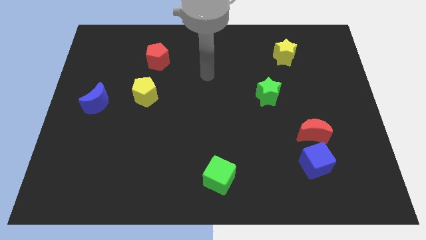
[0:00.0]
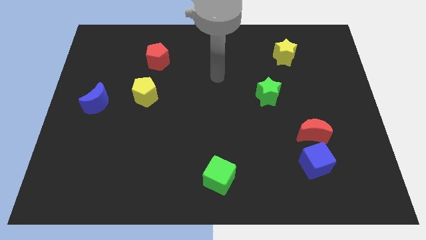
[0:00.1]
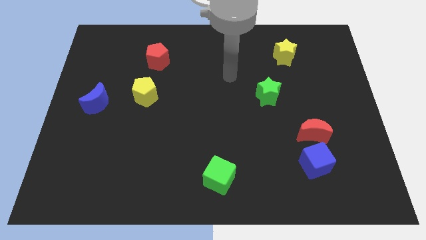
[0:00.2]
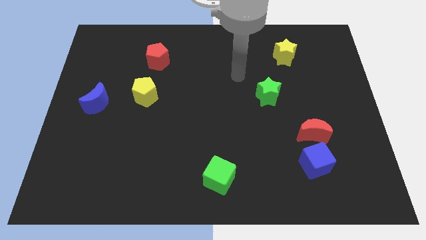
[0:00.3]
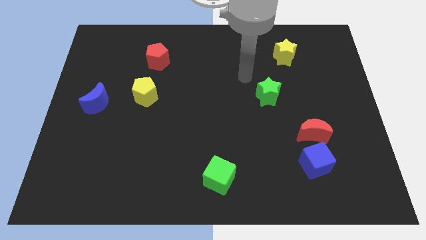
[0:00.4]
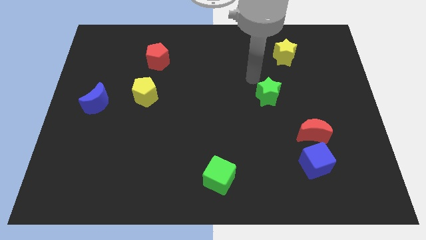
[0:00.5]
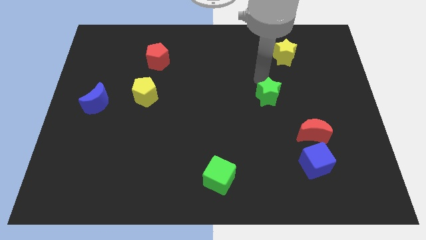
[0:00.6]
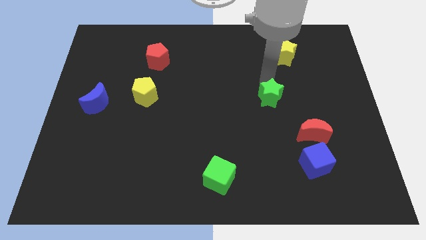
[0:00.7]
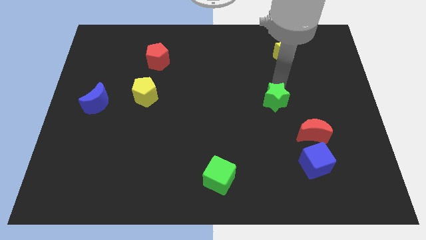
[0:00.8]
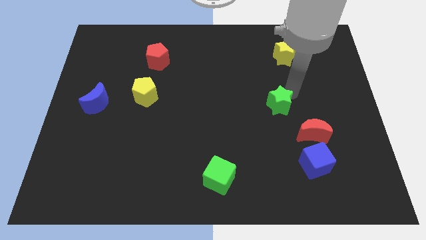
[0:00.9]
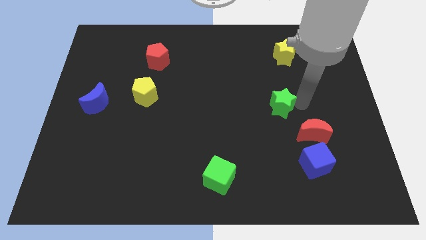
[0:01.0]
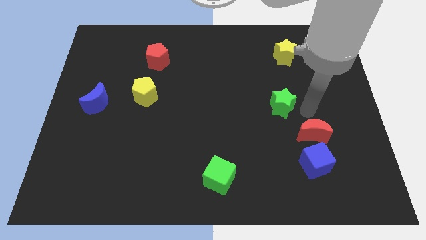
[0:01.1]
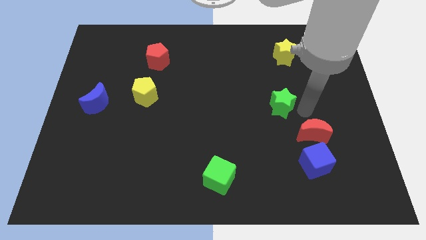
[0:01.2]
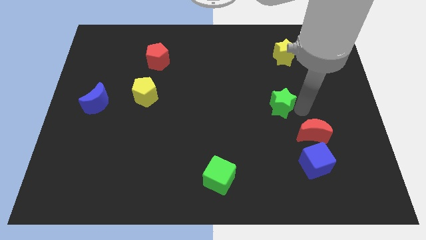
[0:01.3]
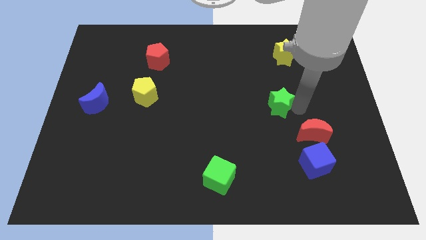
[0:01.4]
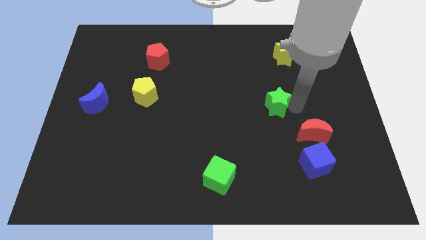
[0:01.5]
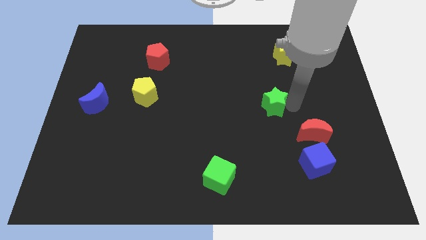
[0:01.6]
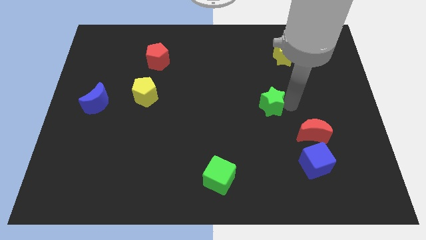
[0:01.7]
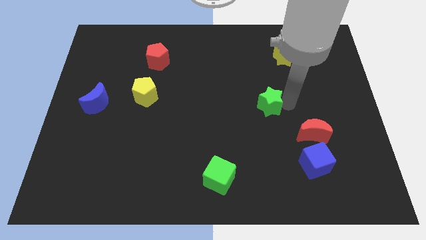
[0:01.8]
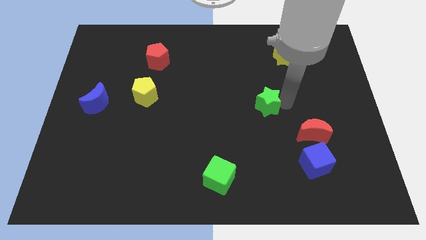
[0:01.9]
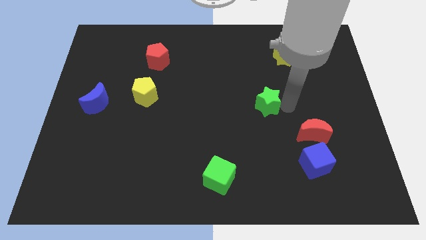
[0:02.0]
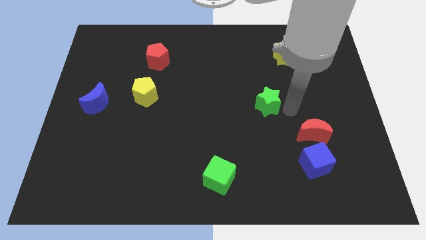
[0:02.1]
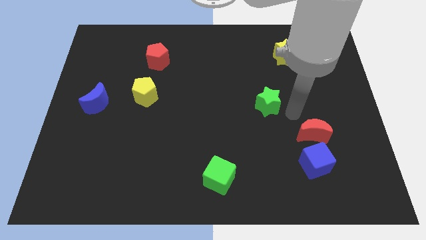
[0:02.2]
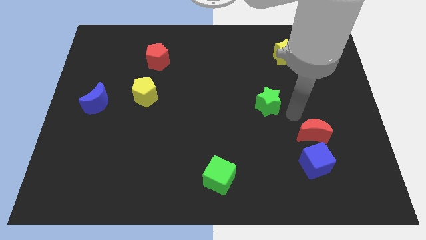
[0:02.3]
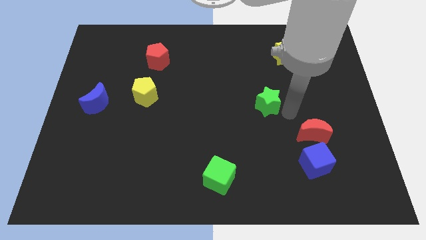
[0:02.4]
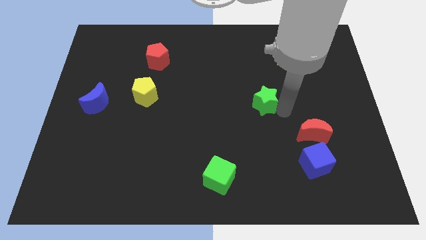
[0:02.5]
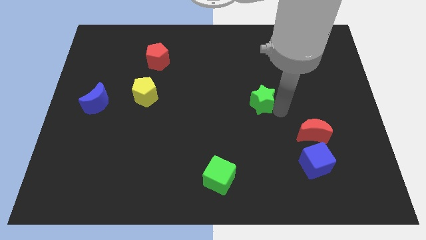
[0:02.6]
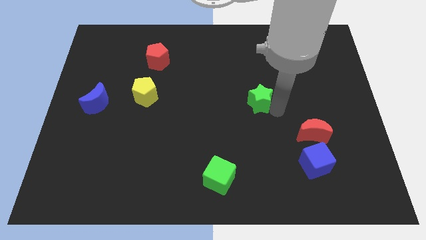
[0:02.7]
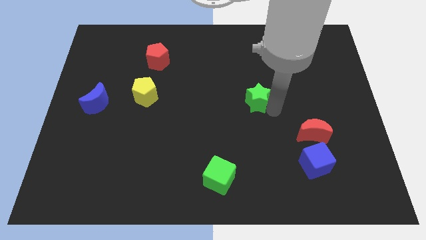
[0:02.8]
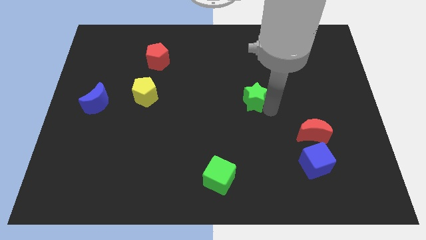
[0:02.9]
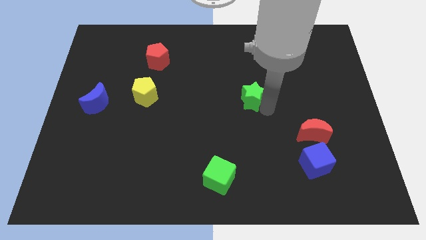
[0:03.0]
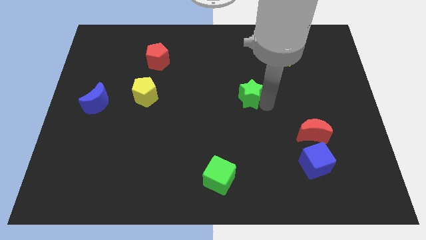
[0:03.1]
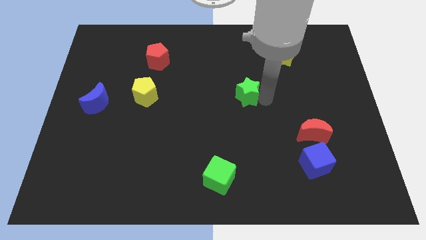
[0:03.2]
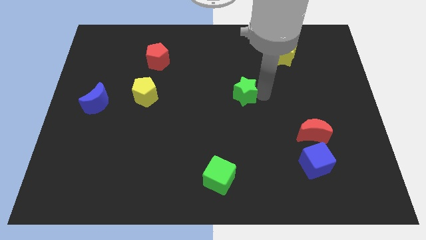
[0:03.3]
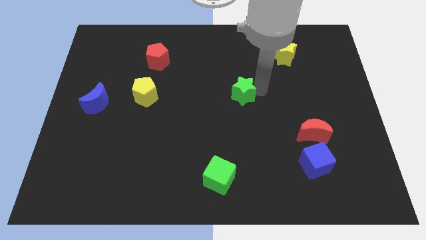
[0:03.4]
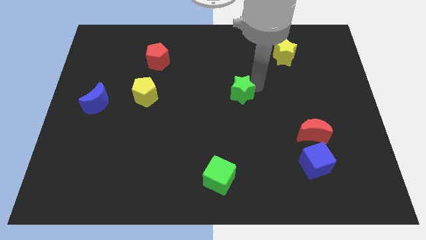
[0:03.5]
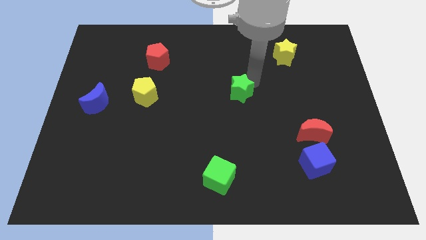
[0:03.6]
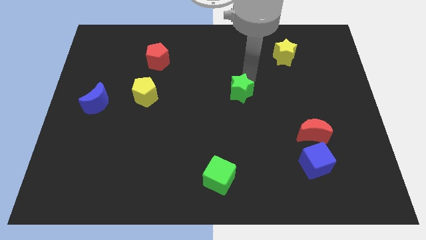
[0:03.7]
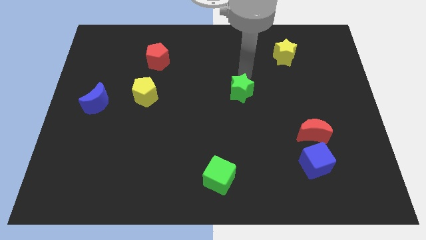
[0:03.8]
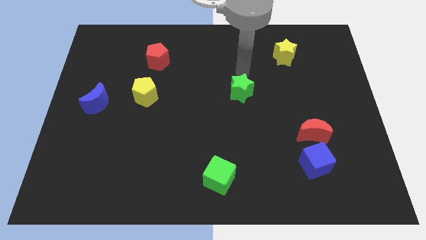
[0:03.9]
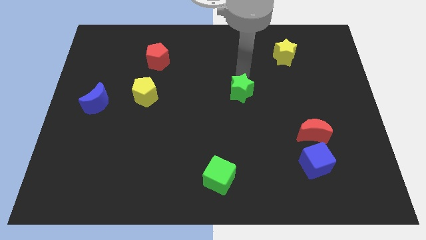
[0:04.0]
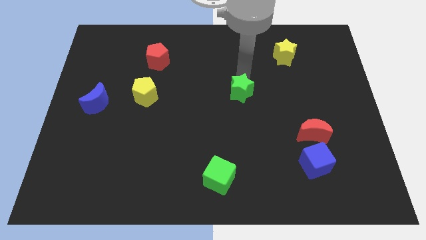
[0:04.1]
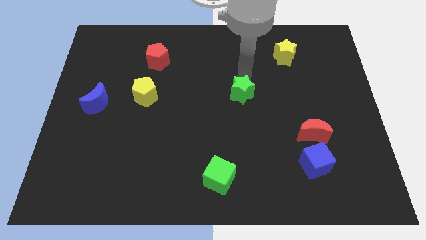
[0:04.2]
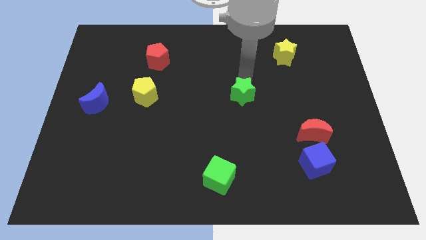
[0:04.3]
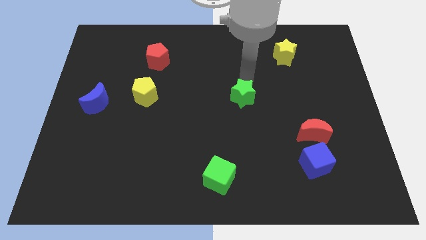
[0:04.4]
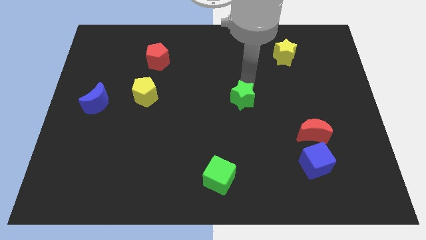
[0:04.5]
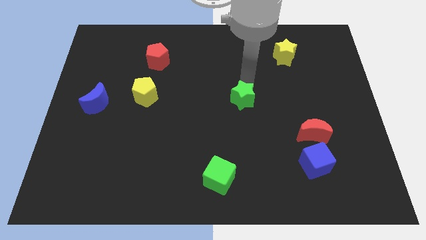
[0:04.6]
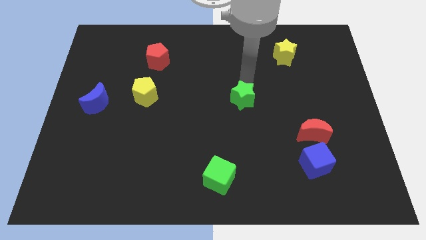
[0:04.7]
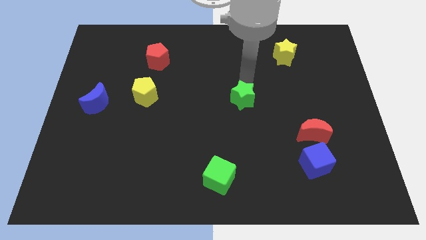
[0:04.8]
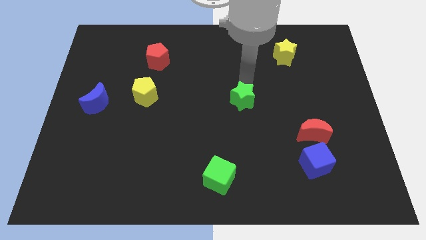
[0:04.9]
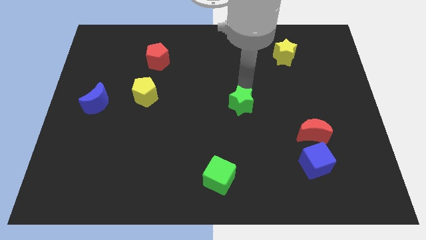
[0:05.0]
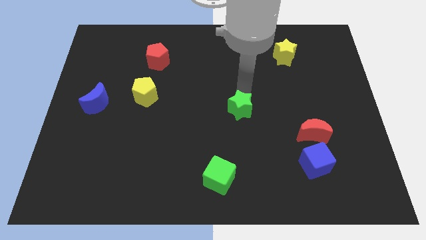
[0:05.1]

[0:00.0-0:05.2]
slide the green star downwards and then left somewhat

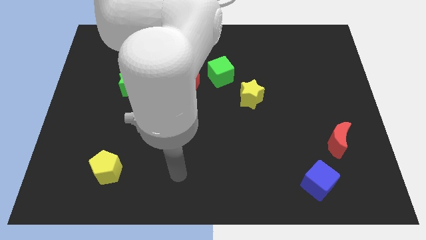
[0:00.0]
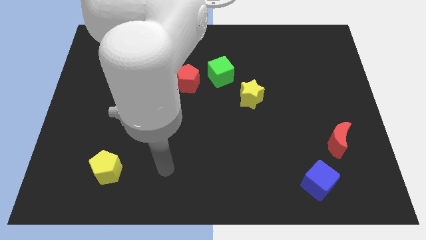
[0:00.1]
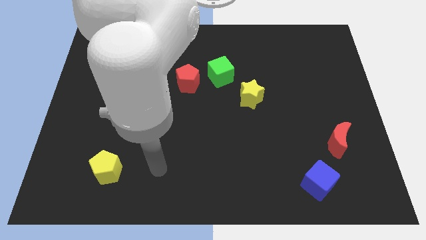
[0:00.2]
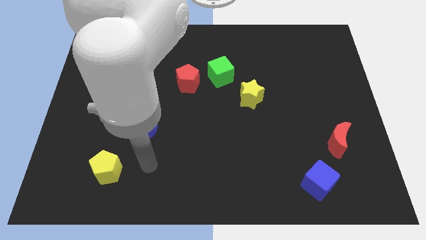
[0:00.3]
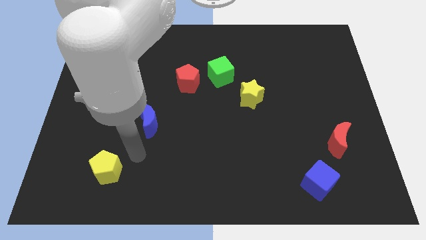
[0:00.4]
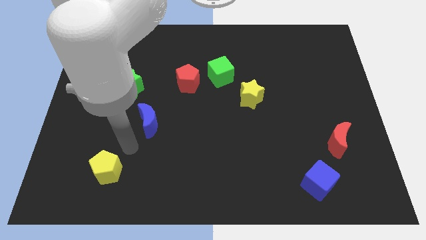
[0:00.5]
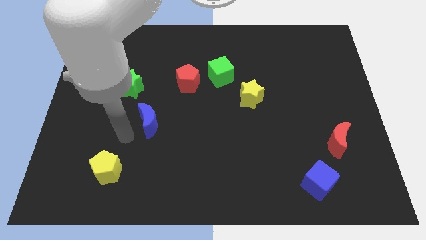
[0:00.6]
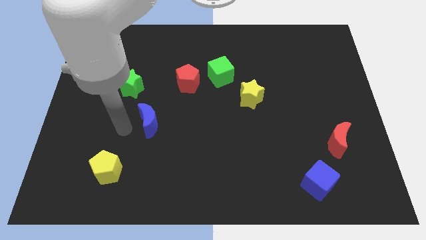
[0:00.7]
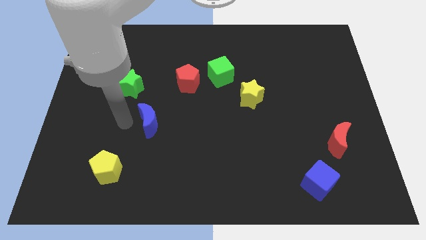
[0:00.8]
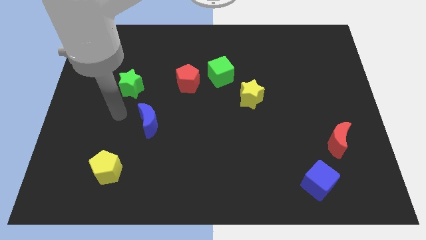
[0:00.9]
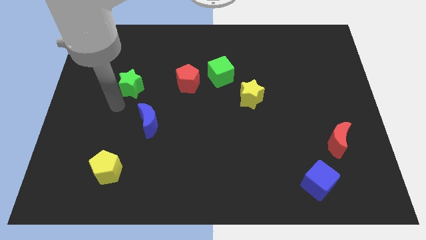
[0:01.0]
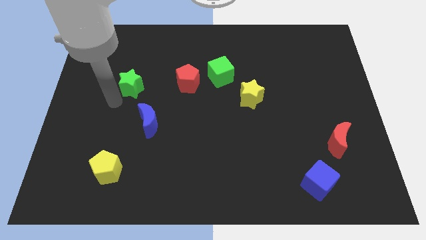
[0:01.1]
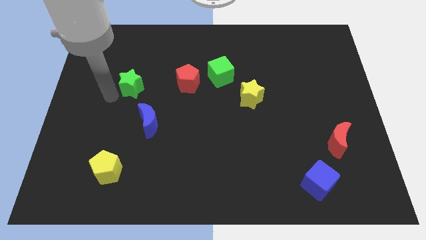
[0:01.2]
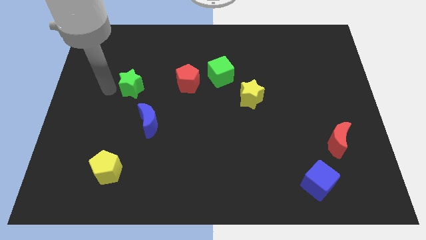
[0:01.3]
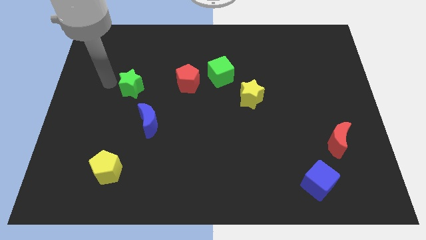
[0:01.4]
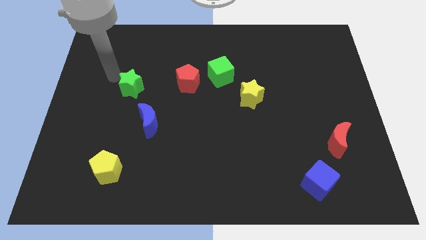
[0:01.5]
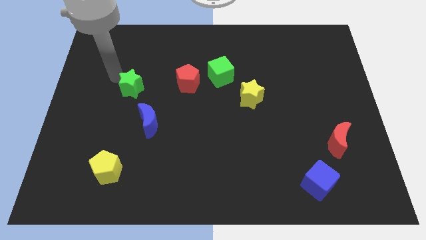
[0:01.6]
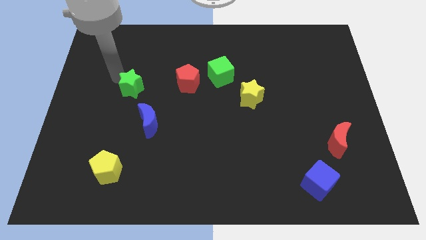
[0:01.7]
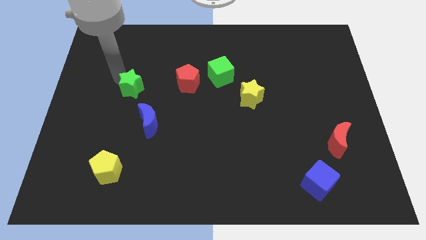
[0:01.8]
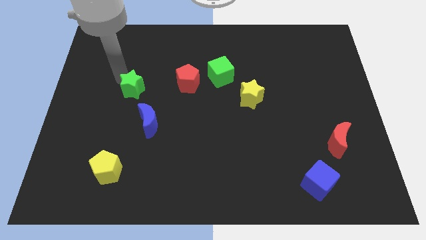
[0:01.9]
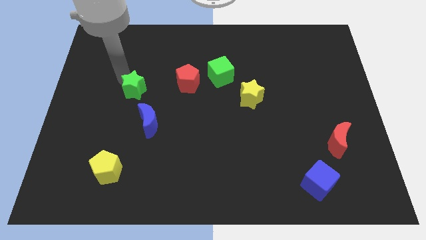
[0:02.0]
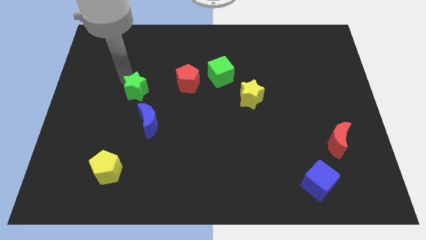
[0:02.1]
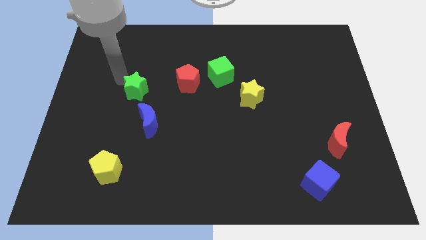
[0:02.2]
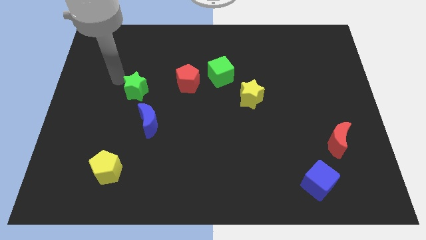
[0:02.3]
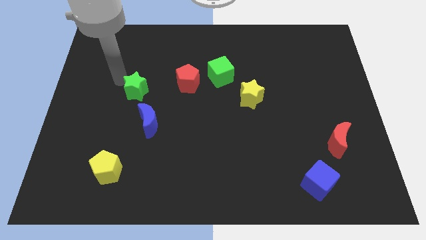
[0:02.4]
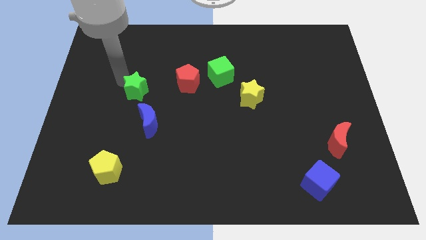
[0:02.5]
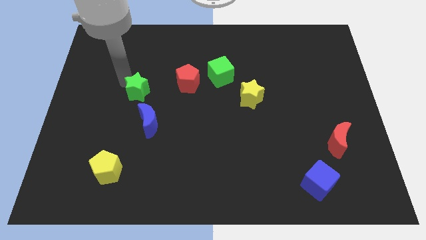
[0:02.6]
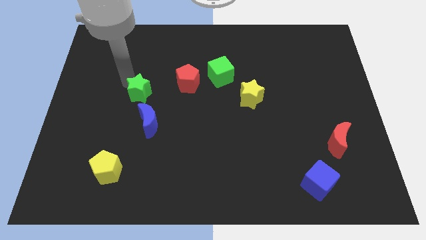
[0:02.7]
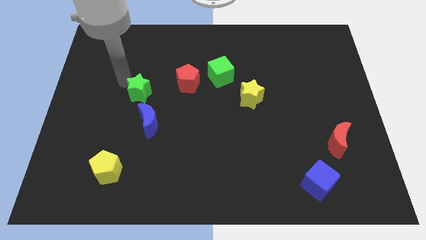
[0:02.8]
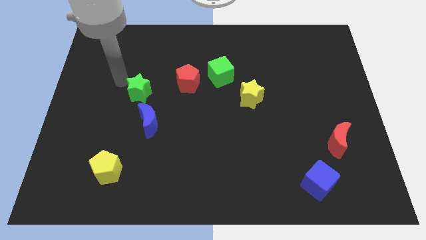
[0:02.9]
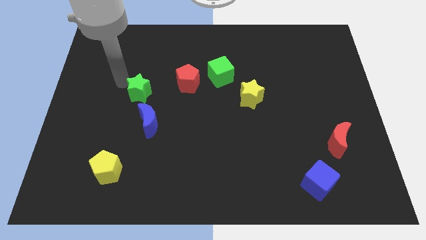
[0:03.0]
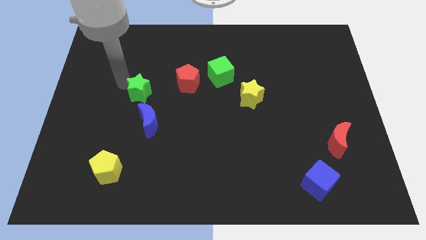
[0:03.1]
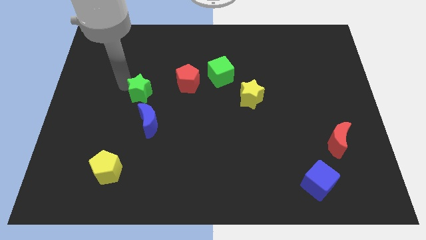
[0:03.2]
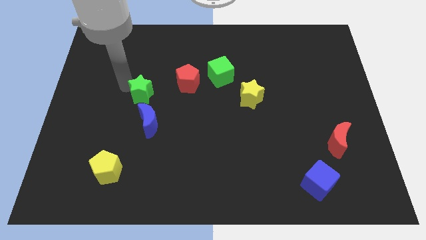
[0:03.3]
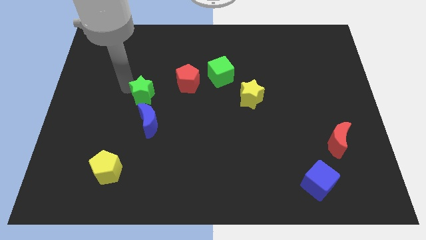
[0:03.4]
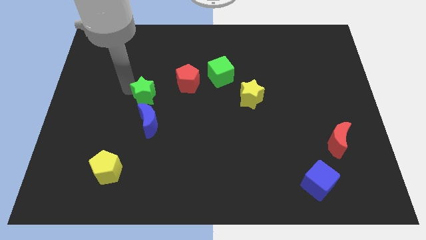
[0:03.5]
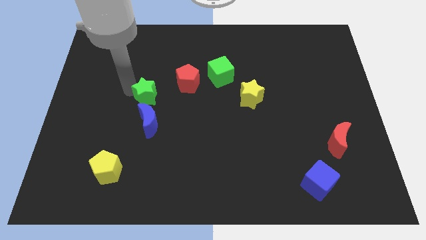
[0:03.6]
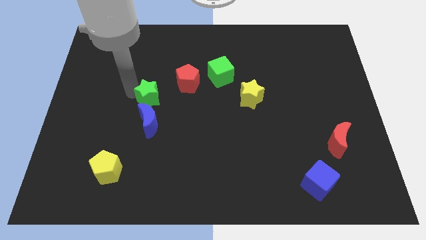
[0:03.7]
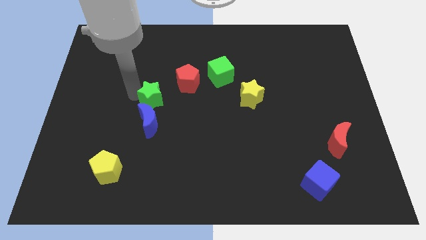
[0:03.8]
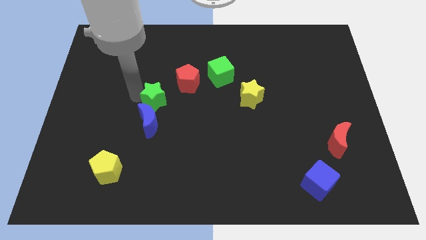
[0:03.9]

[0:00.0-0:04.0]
slightly move the green star down and right diagonally
